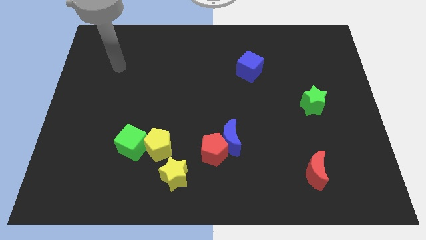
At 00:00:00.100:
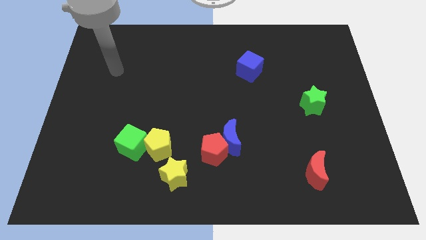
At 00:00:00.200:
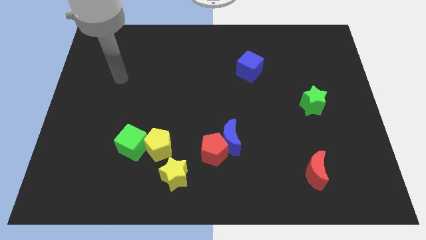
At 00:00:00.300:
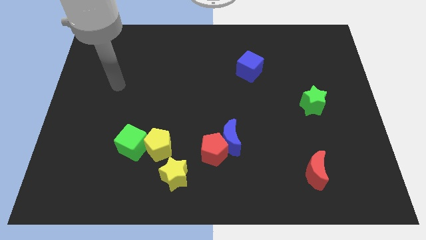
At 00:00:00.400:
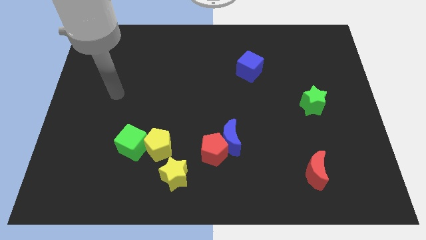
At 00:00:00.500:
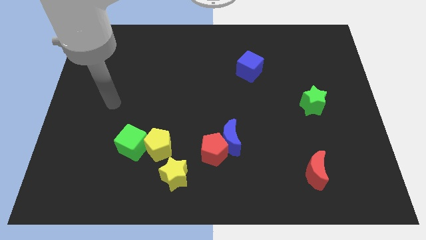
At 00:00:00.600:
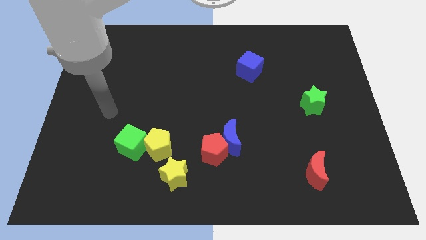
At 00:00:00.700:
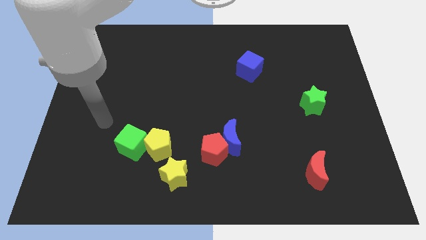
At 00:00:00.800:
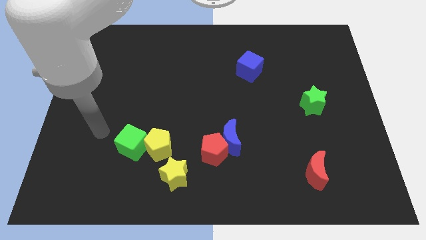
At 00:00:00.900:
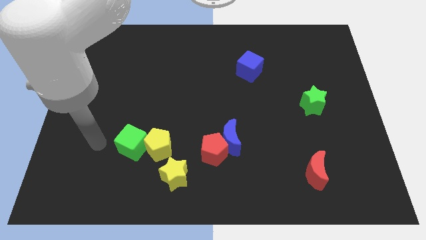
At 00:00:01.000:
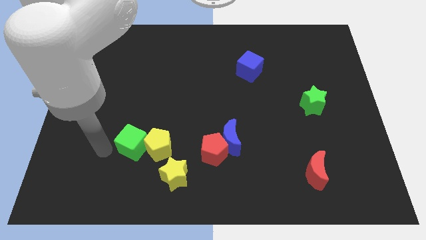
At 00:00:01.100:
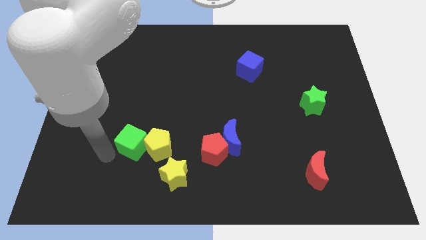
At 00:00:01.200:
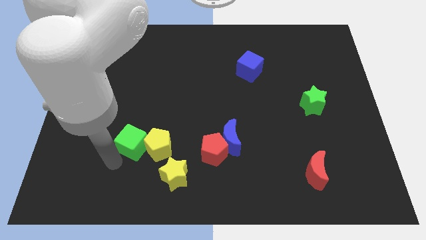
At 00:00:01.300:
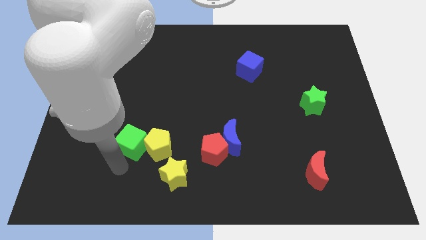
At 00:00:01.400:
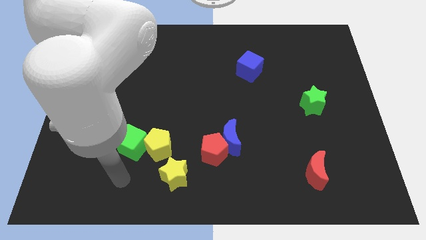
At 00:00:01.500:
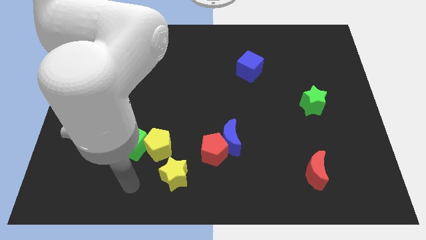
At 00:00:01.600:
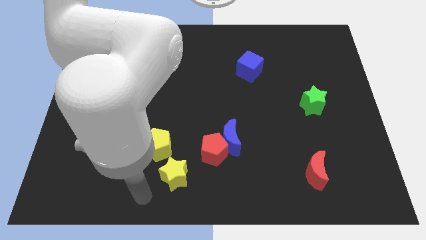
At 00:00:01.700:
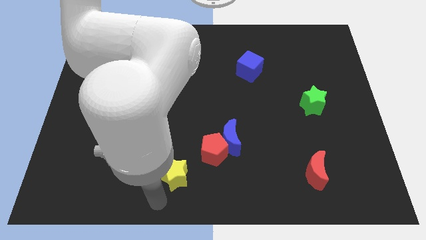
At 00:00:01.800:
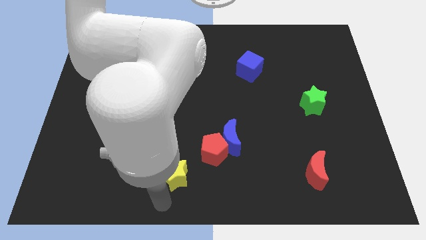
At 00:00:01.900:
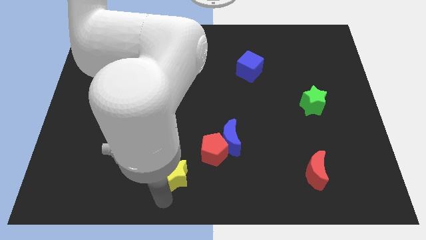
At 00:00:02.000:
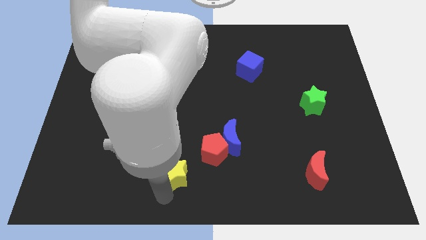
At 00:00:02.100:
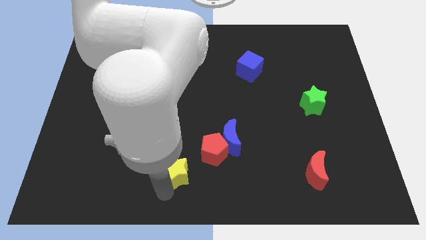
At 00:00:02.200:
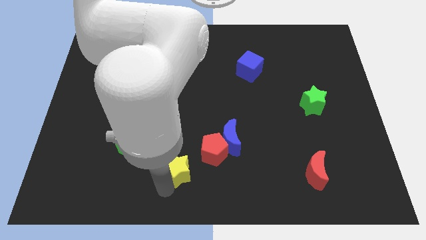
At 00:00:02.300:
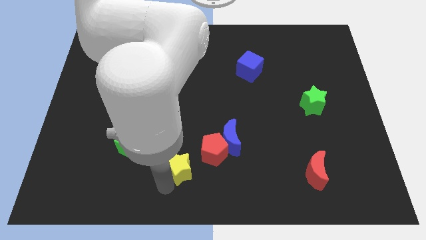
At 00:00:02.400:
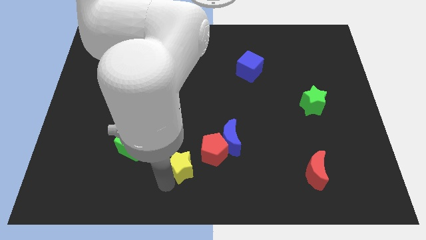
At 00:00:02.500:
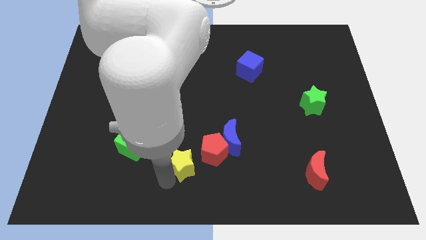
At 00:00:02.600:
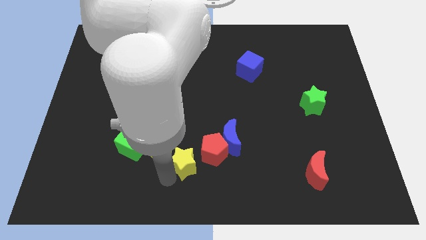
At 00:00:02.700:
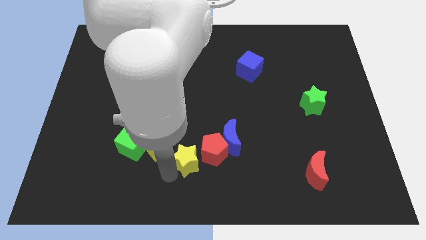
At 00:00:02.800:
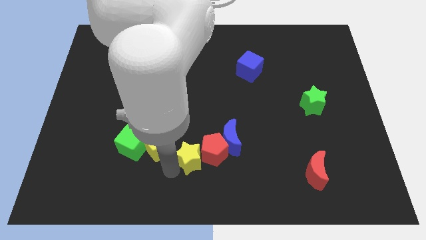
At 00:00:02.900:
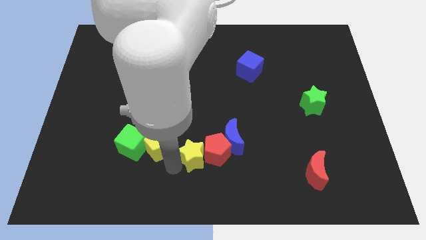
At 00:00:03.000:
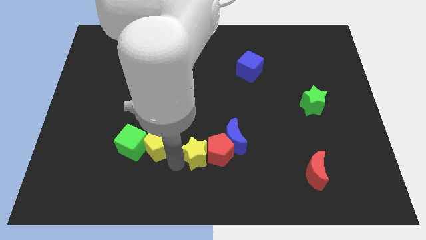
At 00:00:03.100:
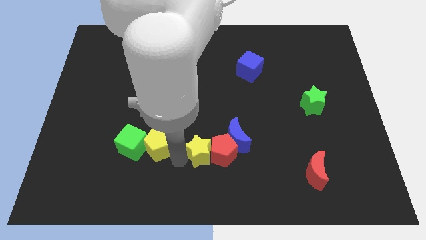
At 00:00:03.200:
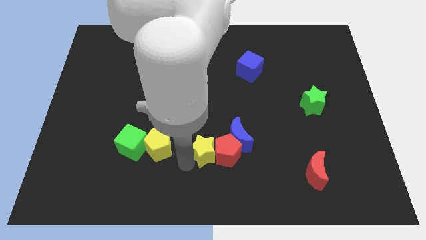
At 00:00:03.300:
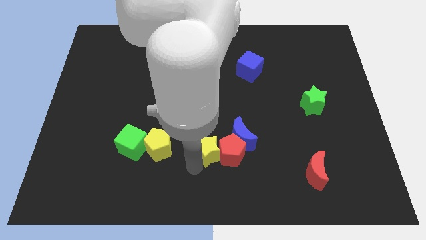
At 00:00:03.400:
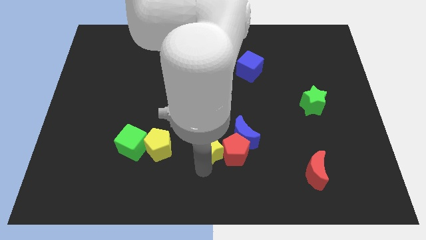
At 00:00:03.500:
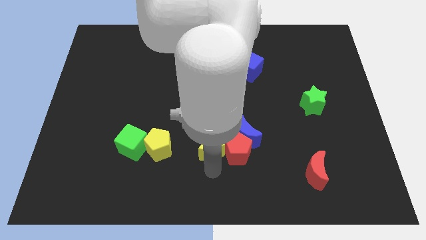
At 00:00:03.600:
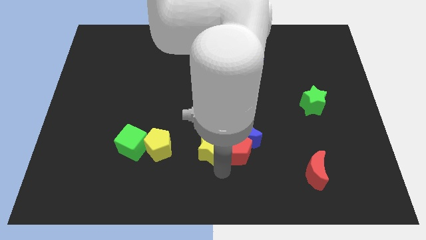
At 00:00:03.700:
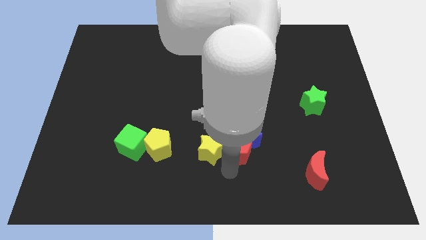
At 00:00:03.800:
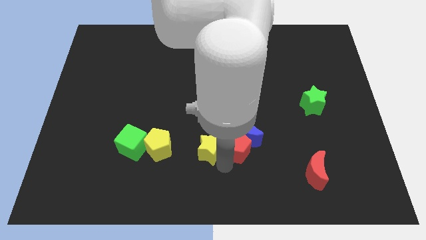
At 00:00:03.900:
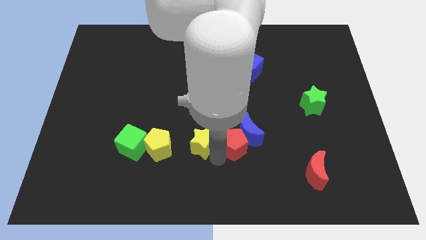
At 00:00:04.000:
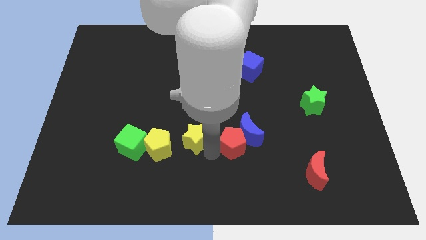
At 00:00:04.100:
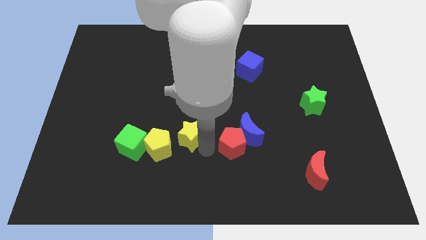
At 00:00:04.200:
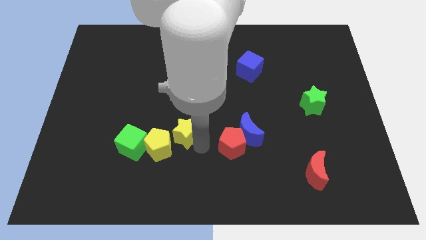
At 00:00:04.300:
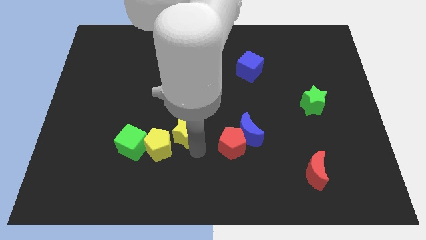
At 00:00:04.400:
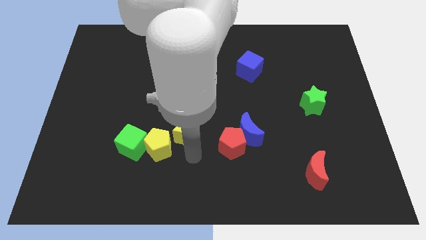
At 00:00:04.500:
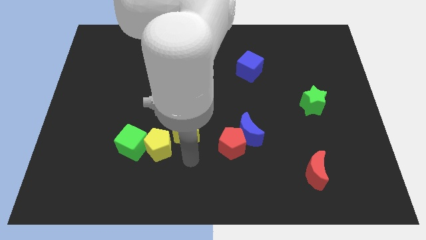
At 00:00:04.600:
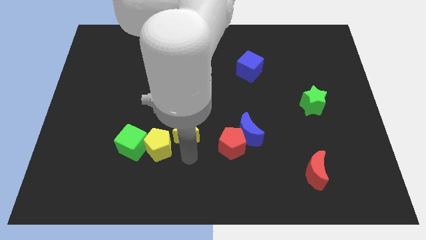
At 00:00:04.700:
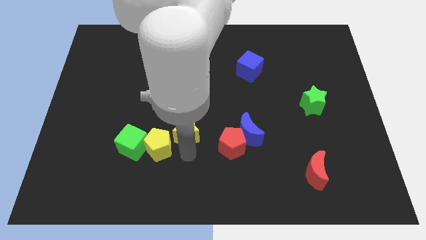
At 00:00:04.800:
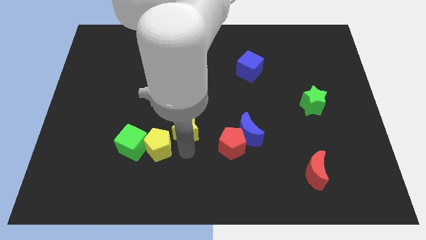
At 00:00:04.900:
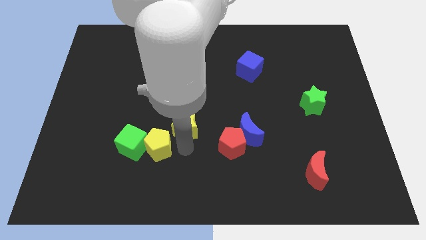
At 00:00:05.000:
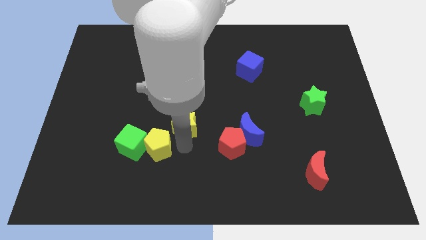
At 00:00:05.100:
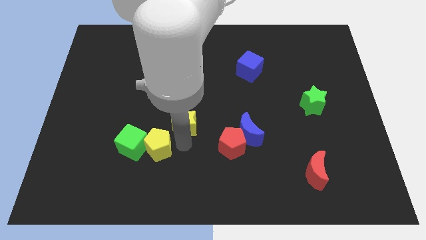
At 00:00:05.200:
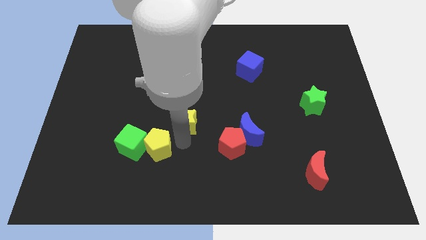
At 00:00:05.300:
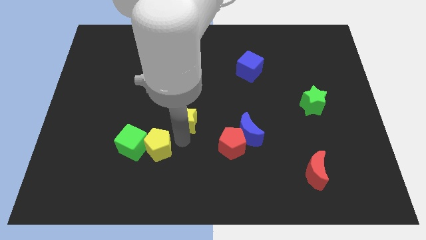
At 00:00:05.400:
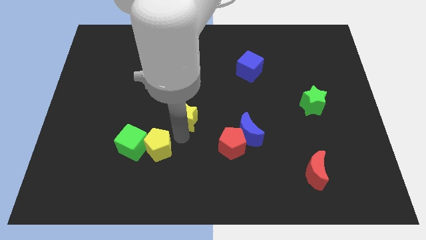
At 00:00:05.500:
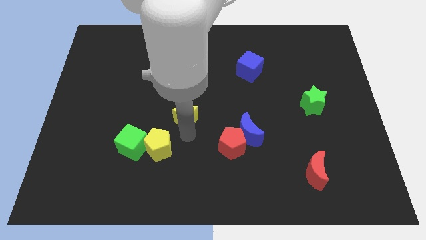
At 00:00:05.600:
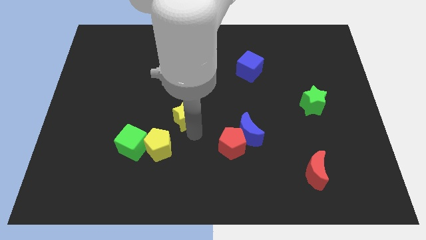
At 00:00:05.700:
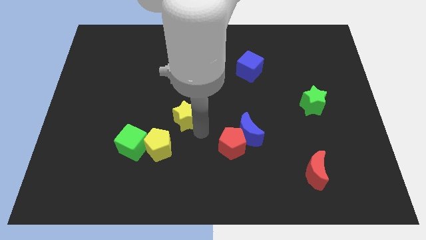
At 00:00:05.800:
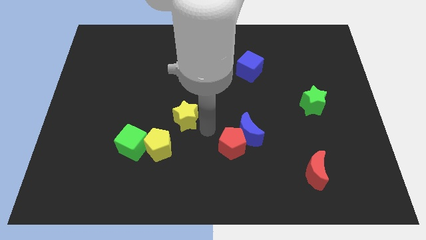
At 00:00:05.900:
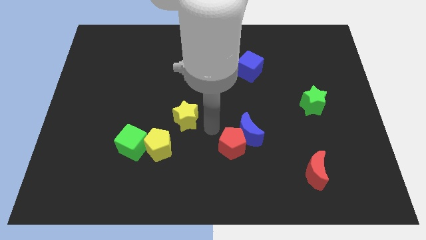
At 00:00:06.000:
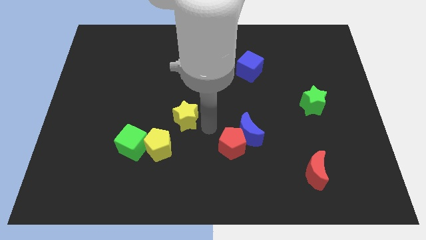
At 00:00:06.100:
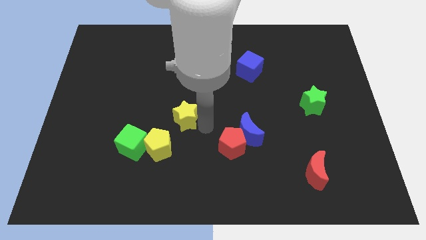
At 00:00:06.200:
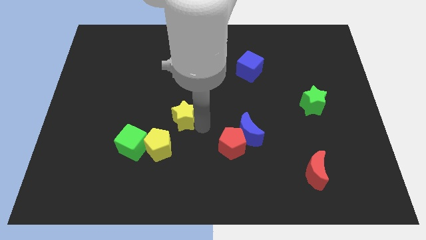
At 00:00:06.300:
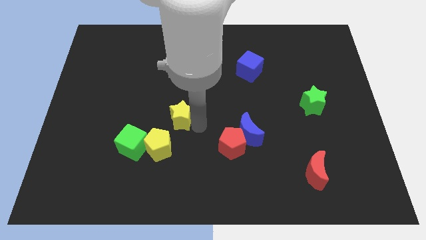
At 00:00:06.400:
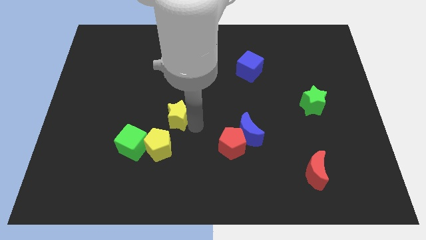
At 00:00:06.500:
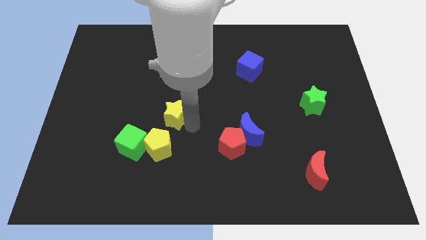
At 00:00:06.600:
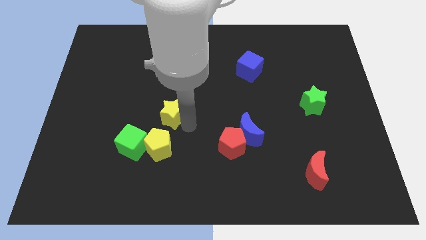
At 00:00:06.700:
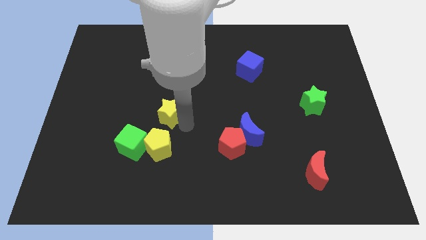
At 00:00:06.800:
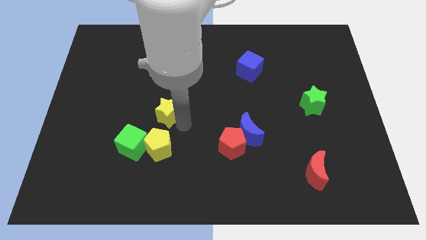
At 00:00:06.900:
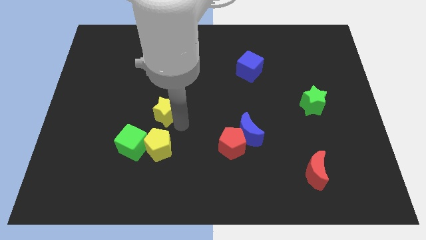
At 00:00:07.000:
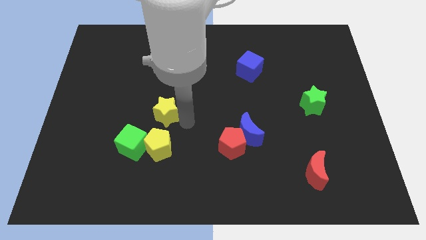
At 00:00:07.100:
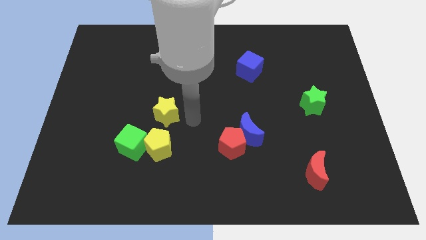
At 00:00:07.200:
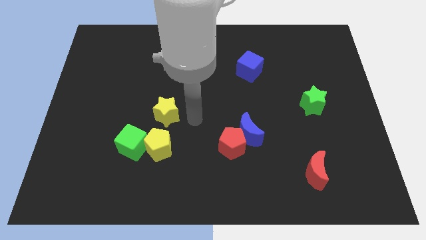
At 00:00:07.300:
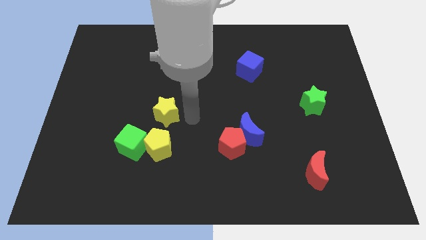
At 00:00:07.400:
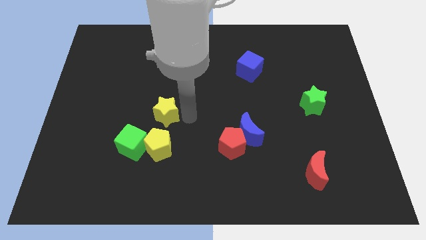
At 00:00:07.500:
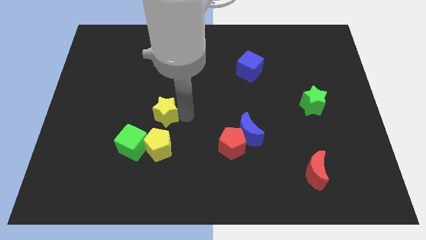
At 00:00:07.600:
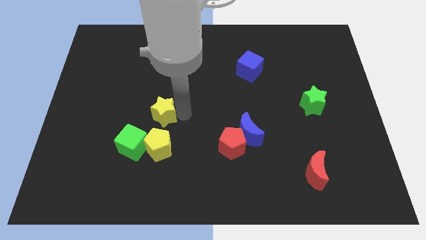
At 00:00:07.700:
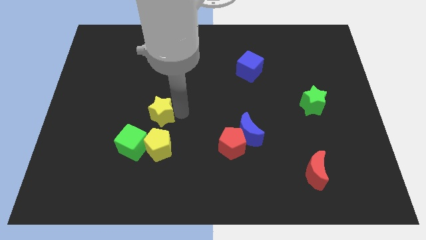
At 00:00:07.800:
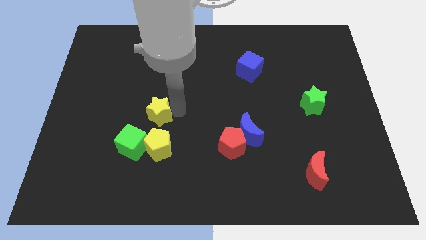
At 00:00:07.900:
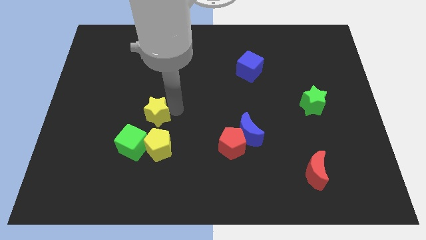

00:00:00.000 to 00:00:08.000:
slide the yellow star to the top side of the green cube
